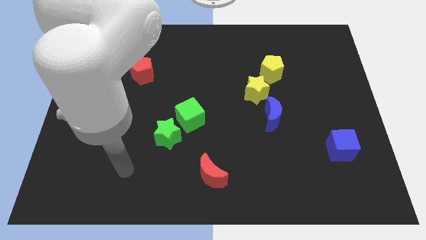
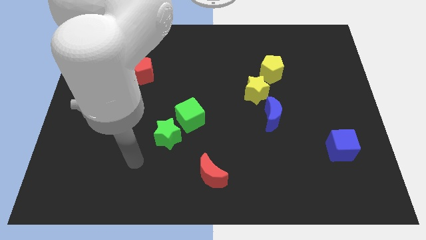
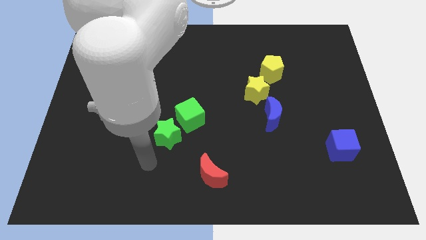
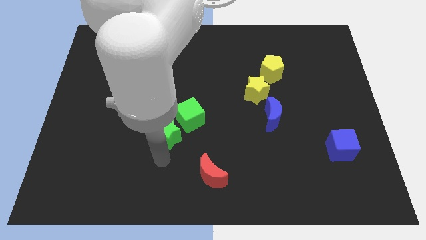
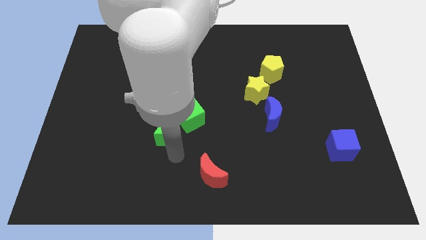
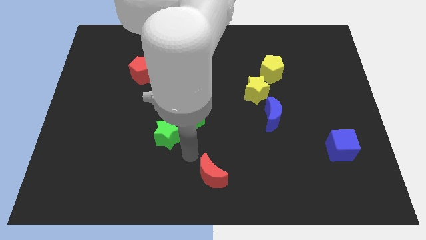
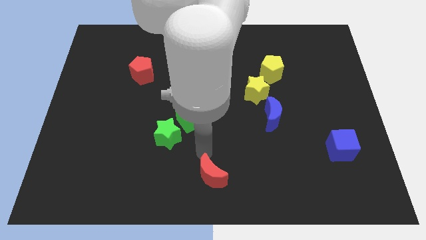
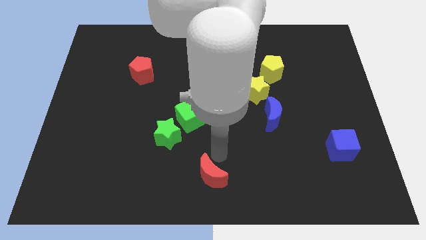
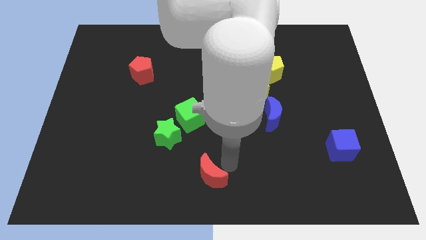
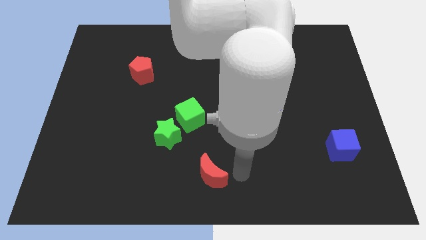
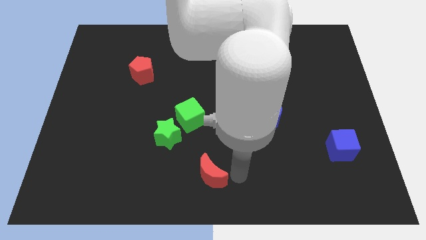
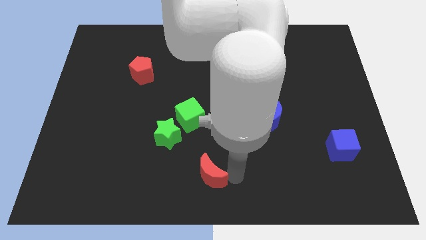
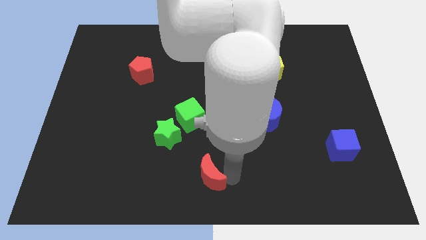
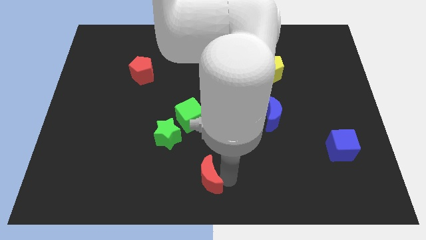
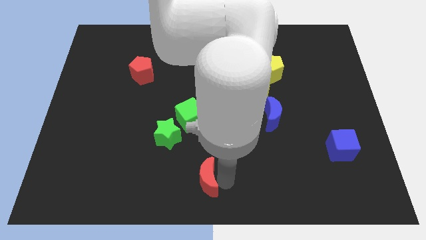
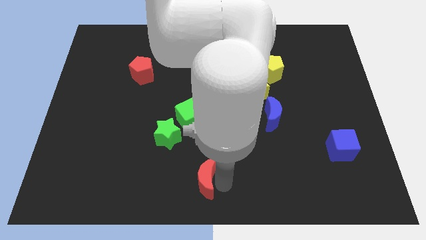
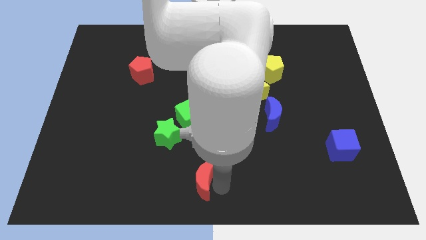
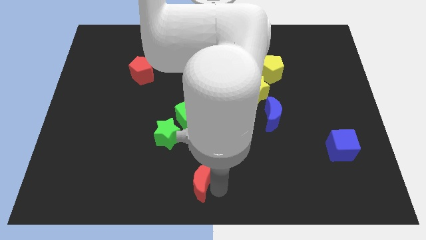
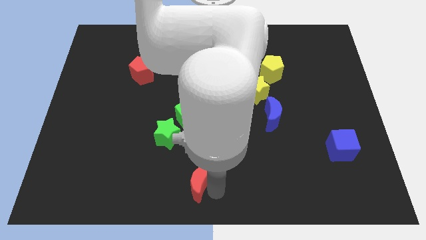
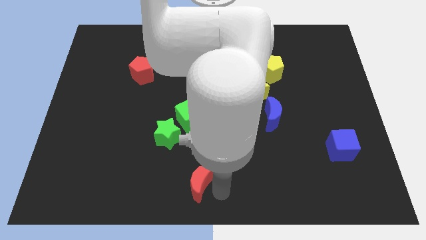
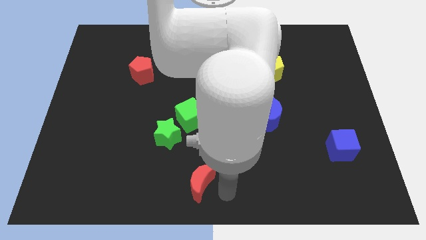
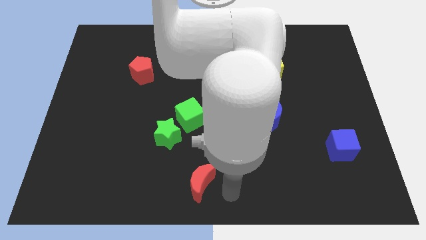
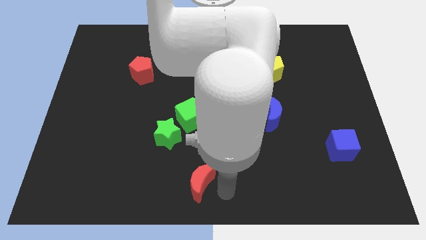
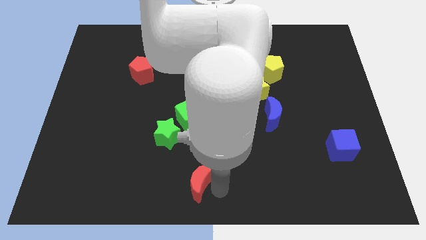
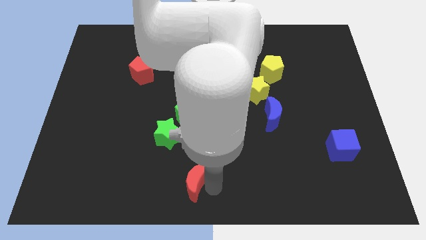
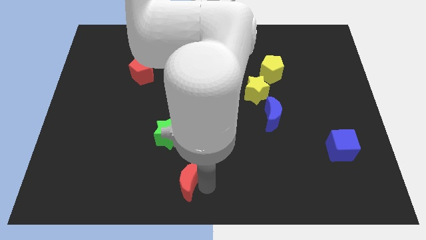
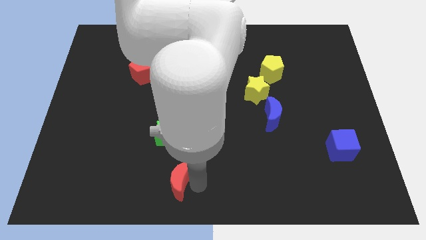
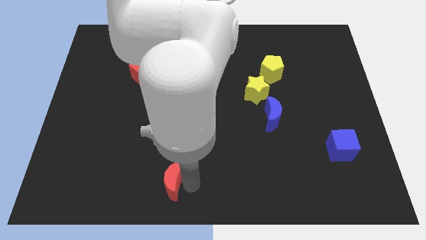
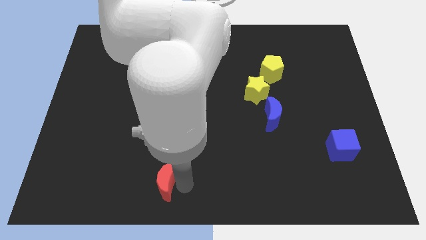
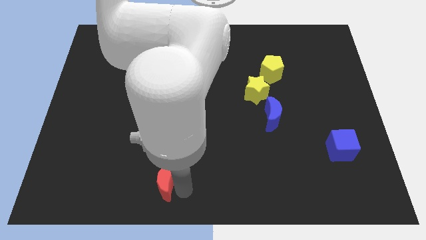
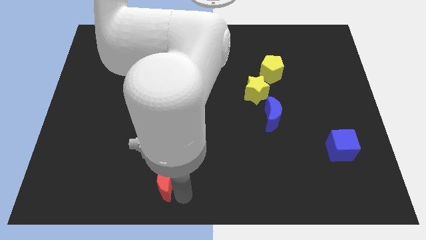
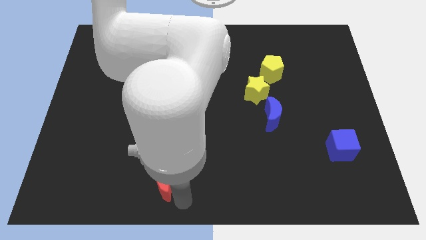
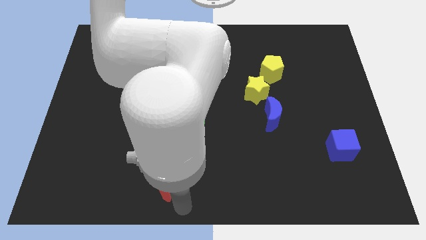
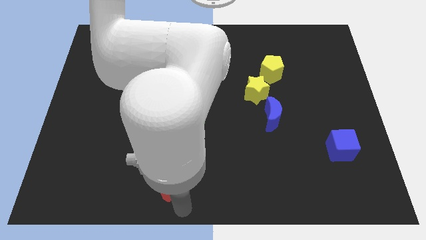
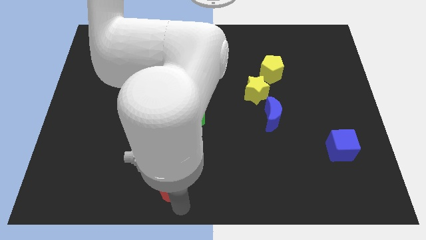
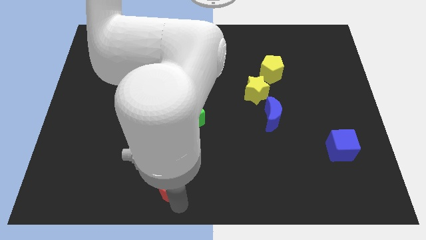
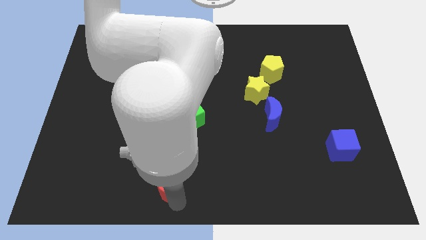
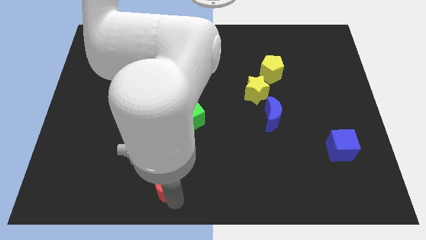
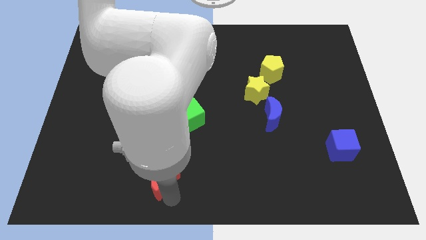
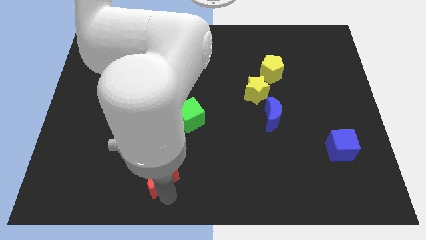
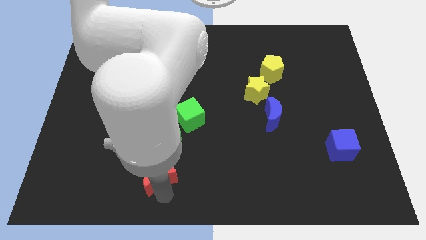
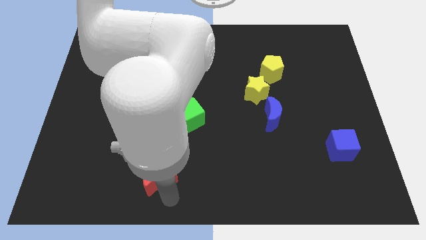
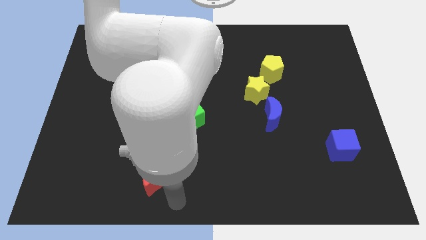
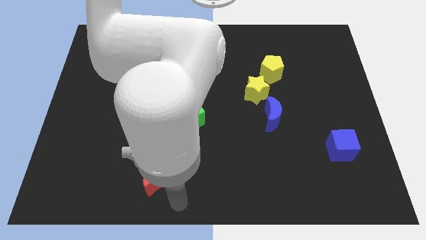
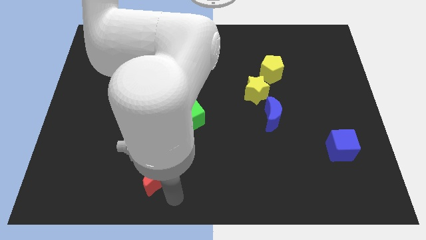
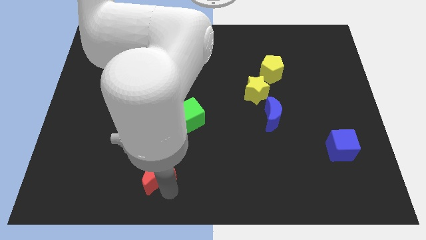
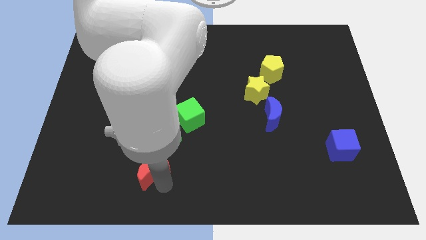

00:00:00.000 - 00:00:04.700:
put the red moon diagonally down and to the left of the green star

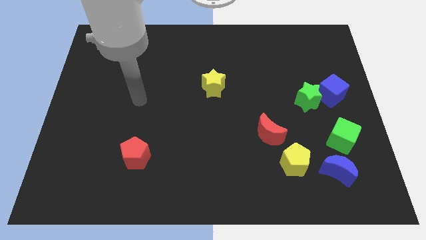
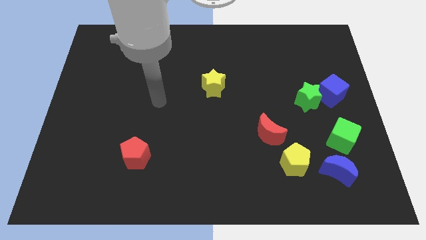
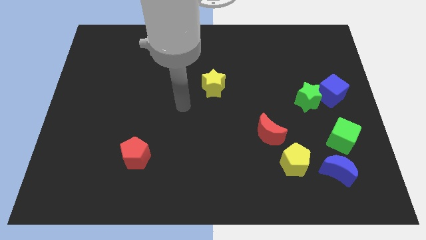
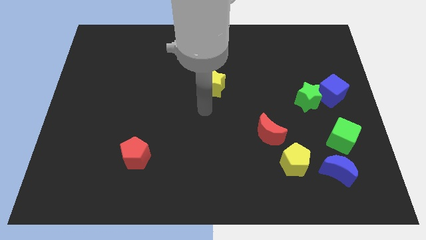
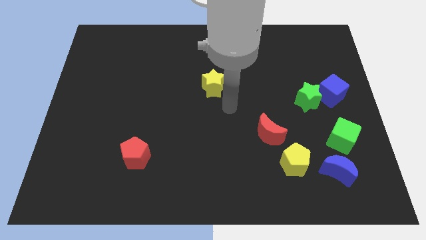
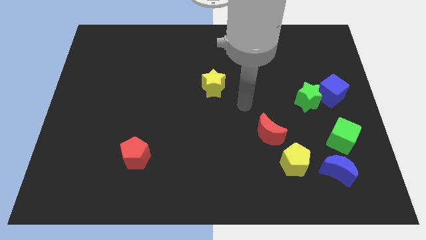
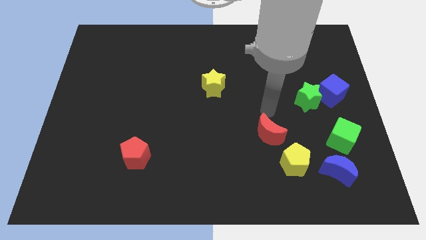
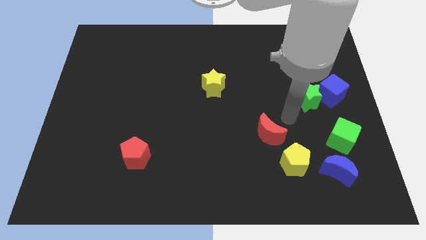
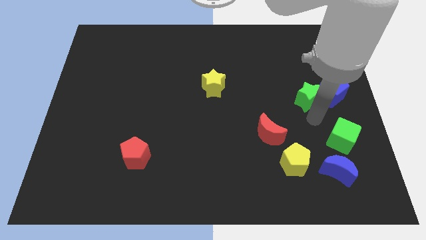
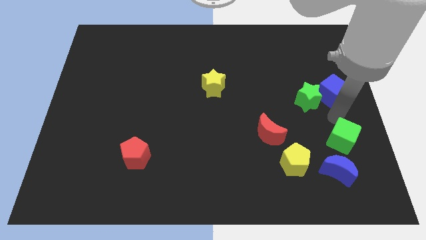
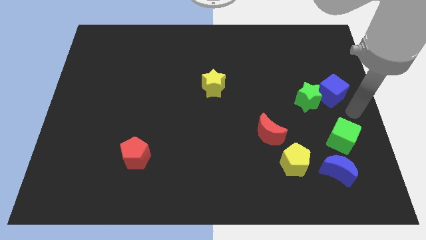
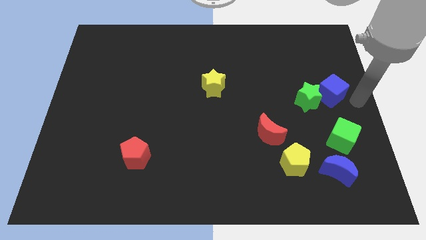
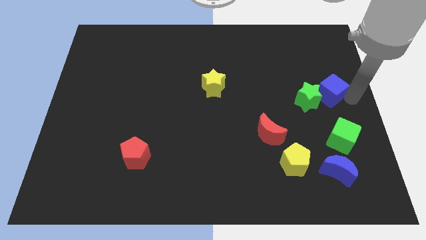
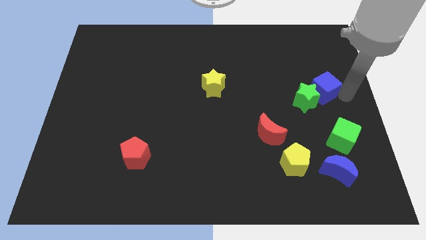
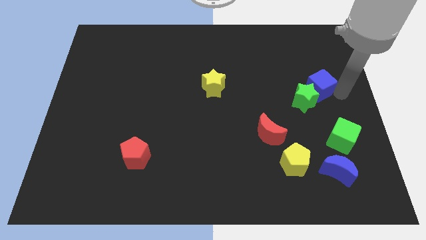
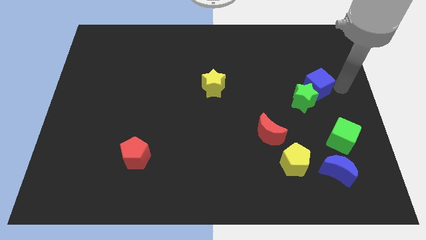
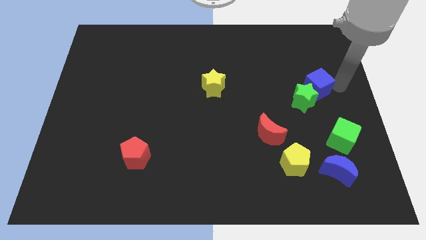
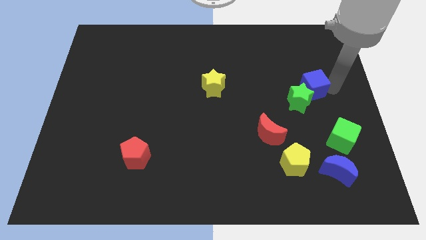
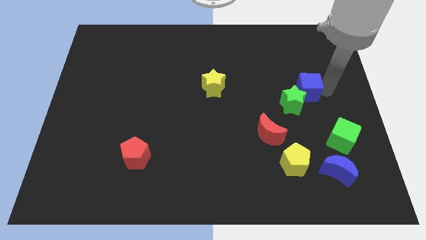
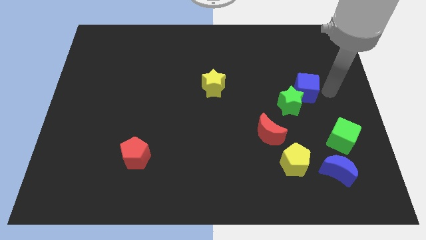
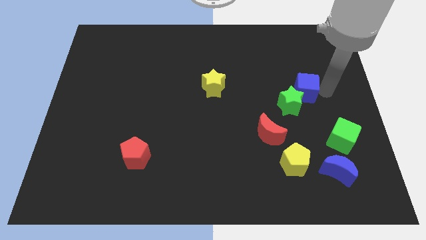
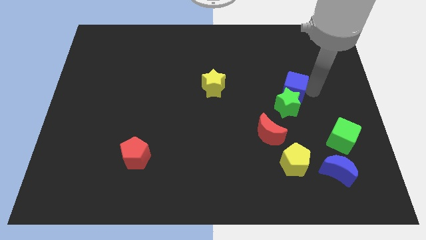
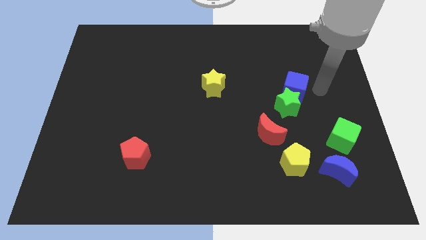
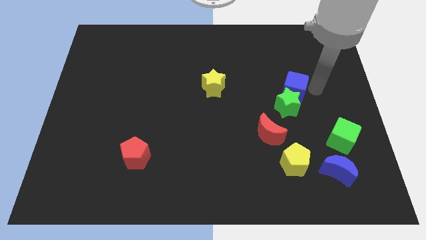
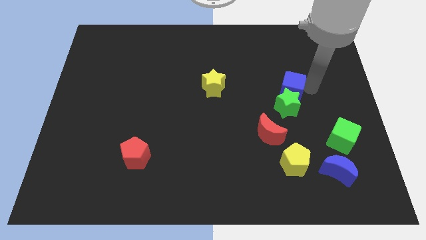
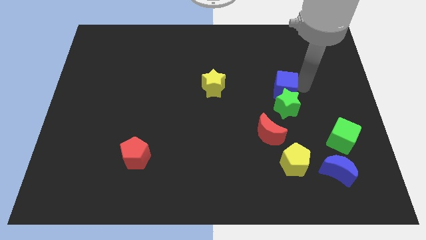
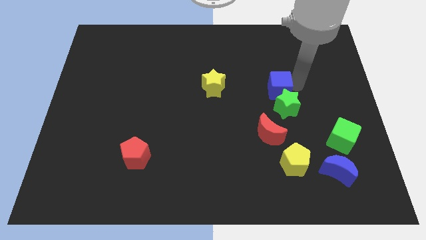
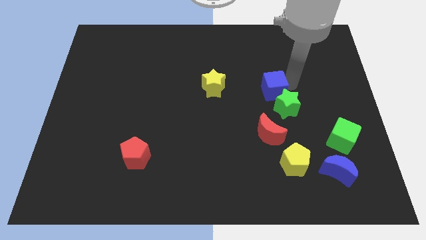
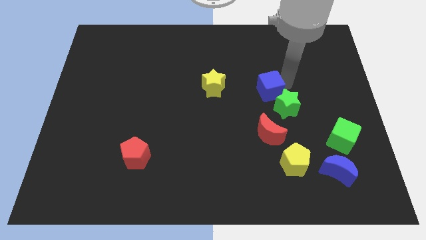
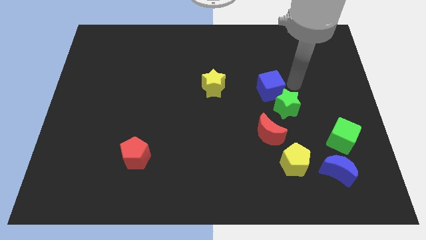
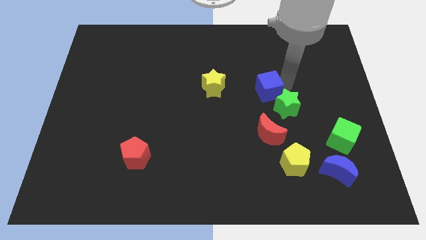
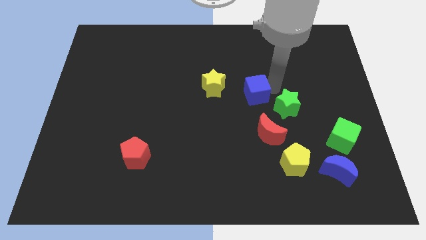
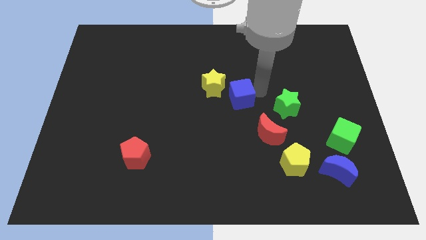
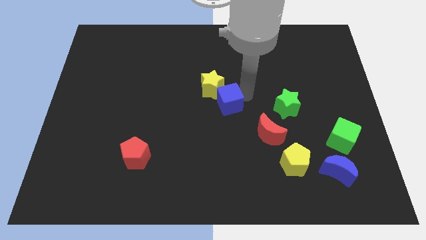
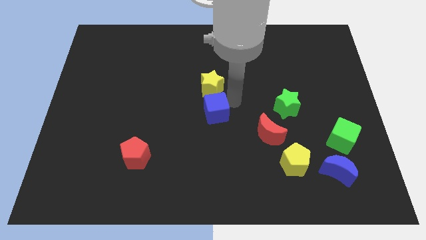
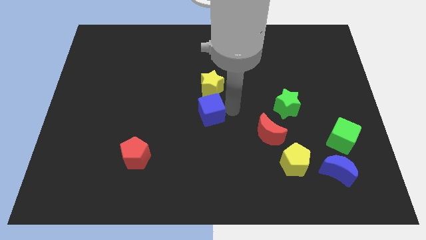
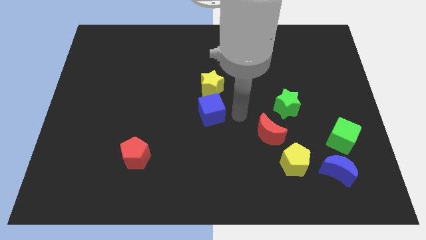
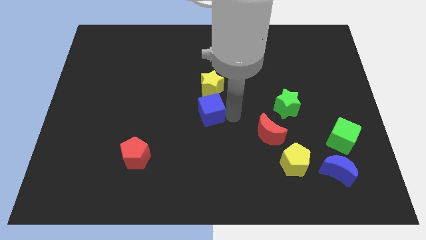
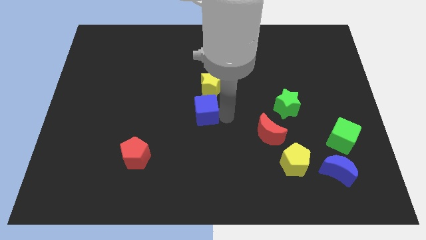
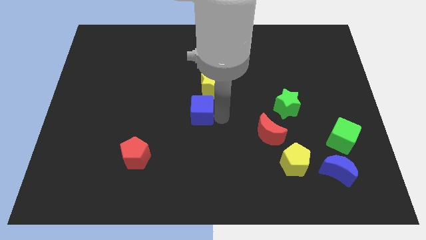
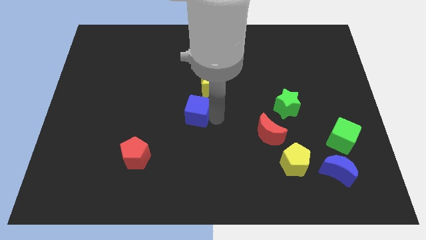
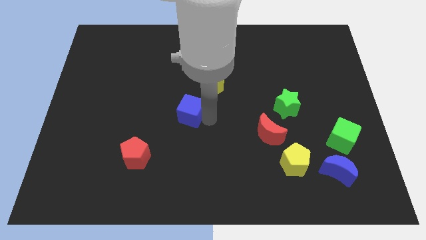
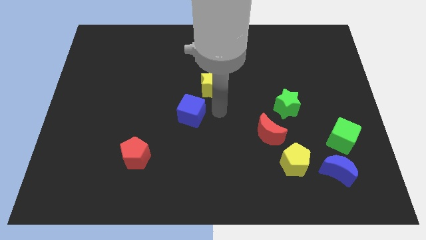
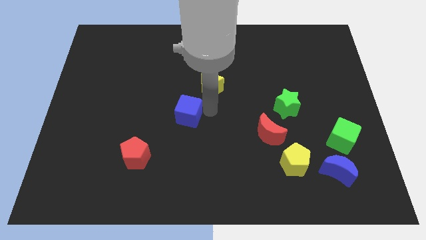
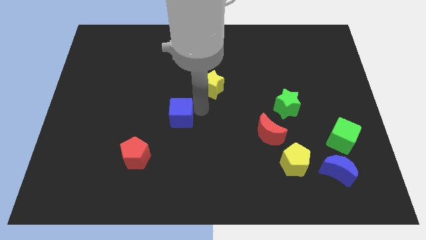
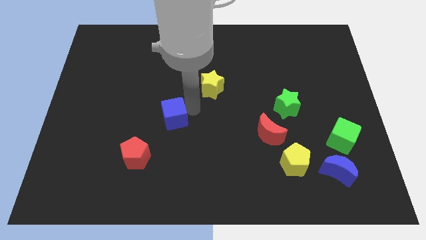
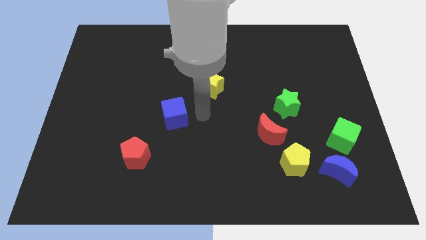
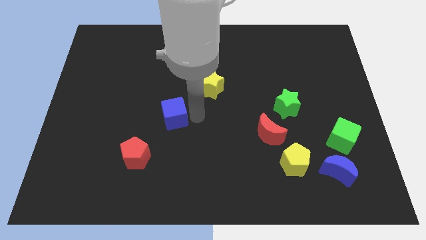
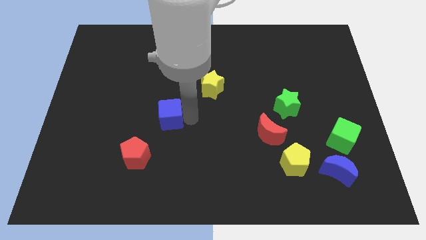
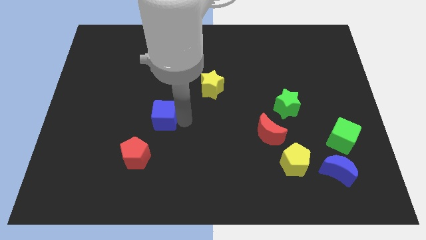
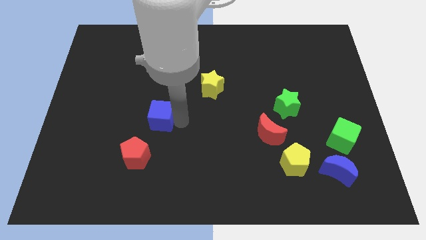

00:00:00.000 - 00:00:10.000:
move the blue cube to the top side of the red pentagon
